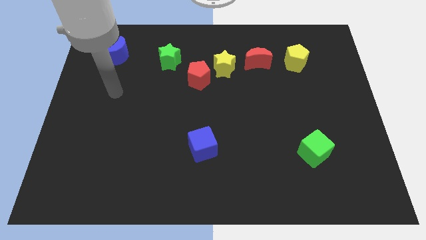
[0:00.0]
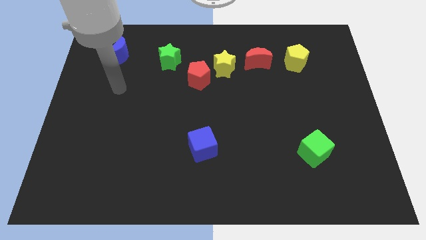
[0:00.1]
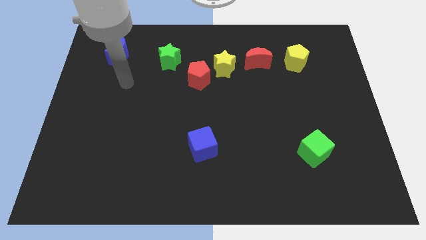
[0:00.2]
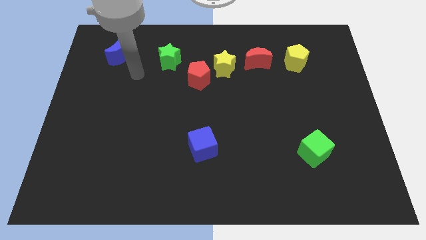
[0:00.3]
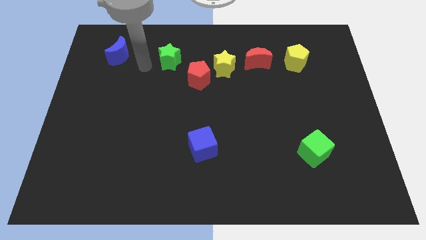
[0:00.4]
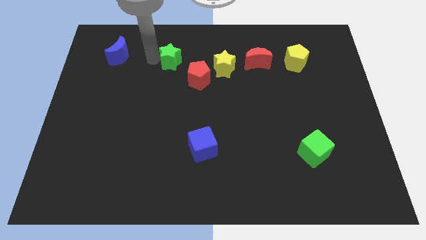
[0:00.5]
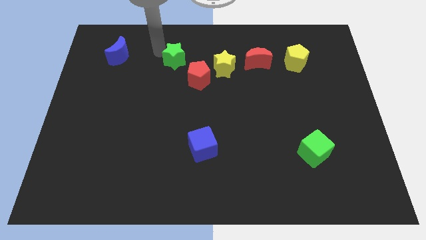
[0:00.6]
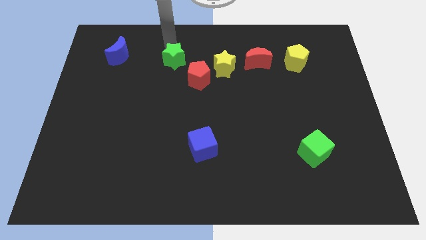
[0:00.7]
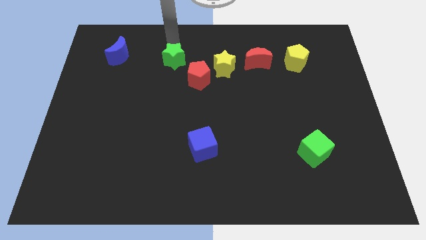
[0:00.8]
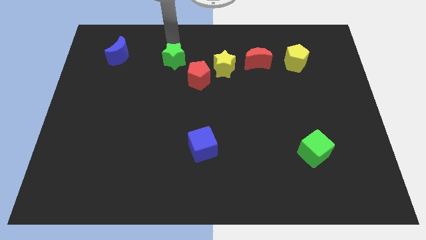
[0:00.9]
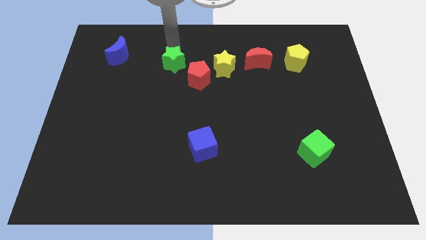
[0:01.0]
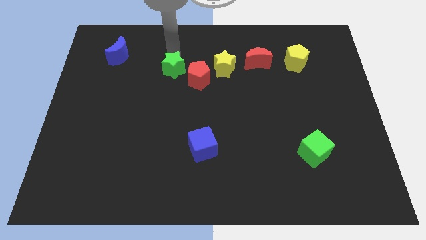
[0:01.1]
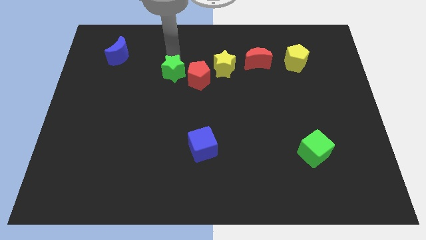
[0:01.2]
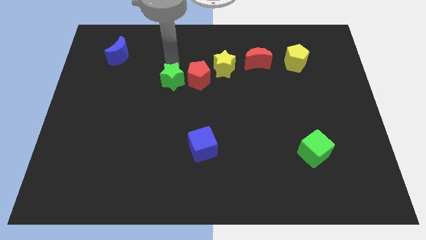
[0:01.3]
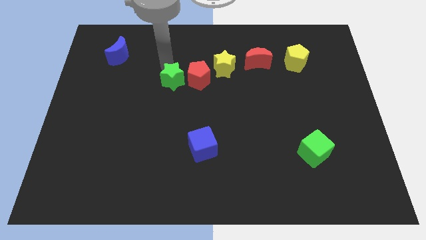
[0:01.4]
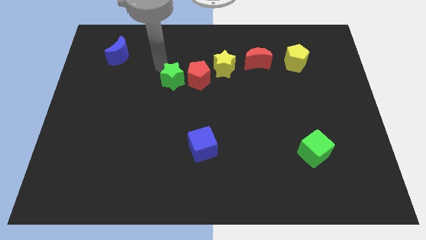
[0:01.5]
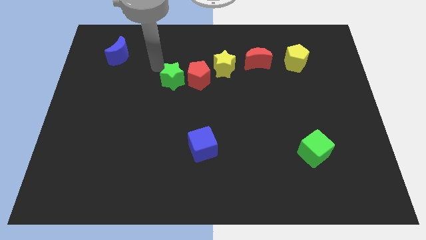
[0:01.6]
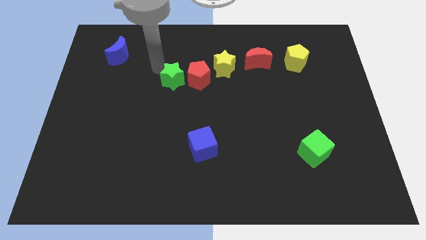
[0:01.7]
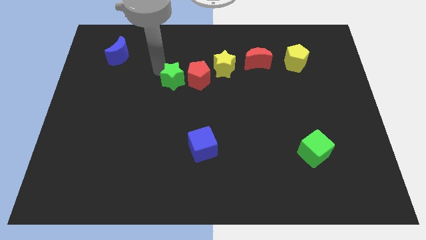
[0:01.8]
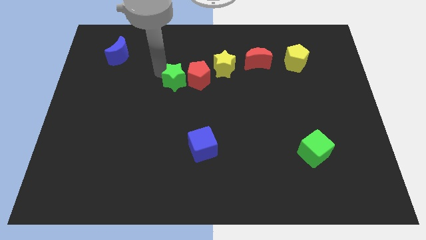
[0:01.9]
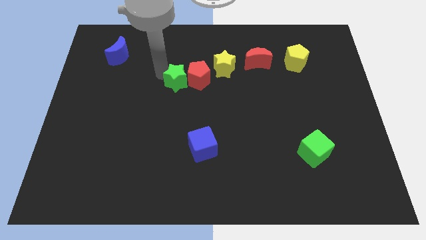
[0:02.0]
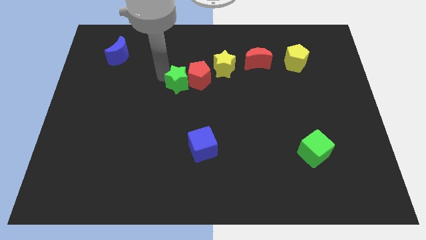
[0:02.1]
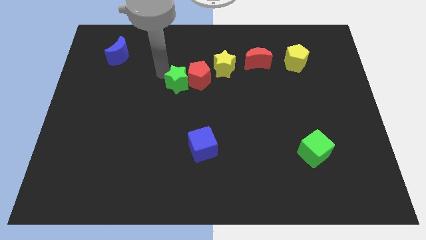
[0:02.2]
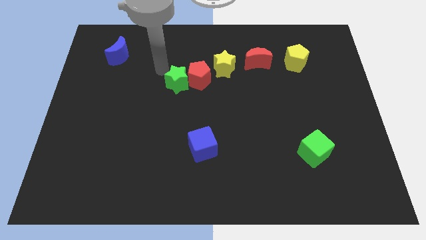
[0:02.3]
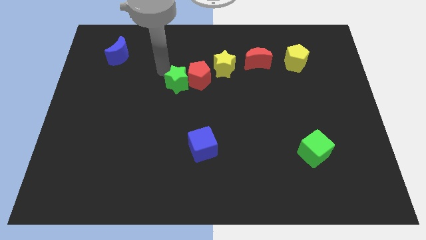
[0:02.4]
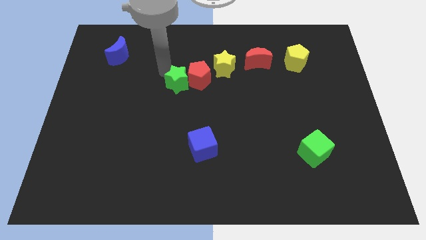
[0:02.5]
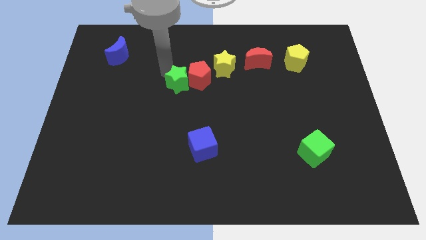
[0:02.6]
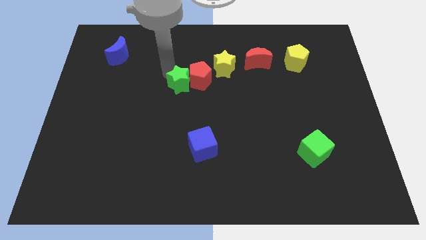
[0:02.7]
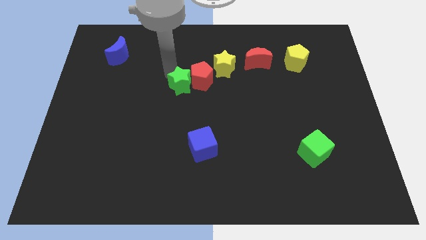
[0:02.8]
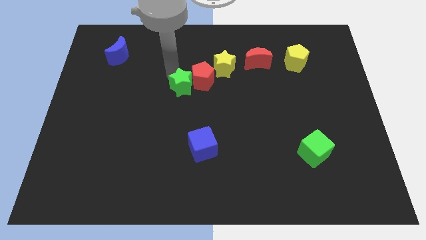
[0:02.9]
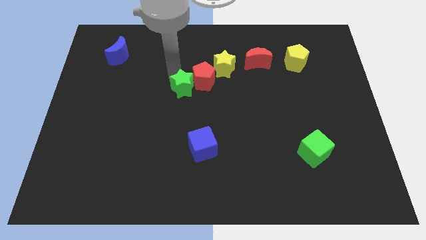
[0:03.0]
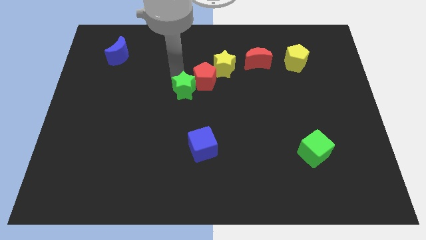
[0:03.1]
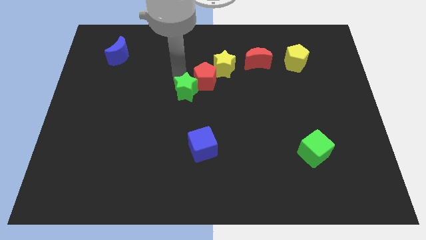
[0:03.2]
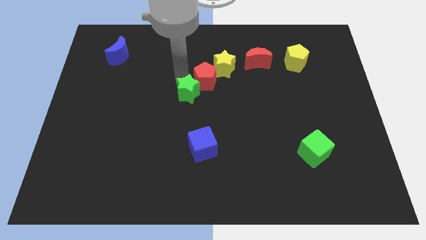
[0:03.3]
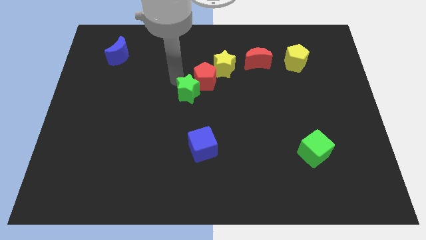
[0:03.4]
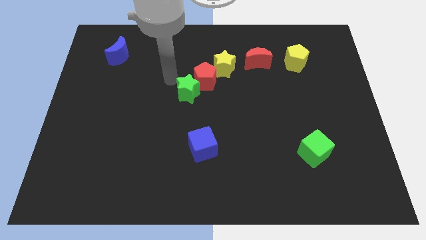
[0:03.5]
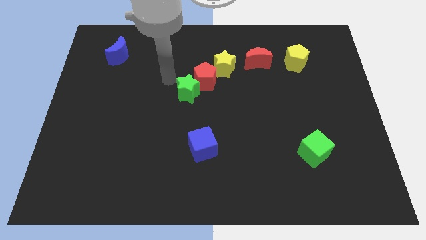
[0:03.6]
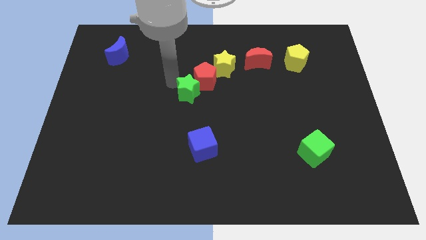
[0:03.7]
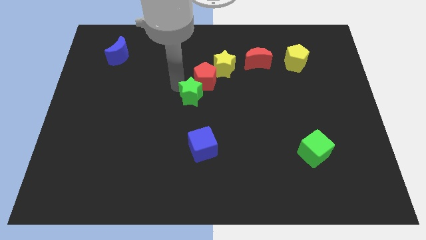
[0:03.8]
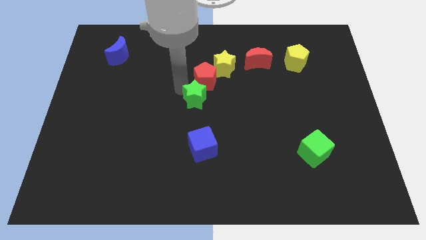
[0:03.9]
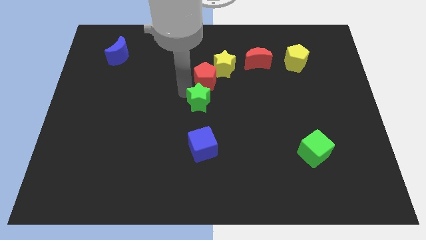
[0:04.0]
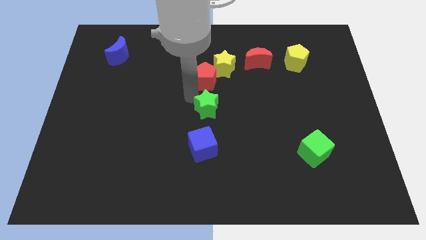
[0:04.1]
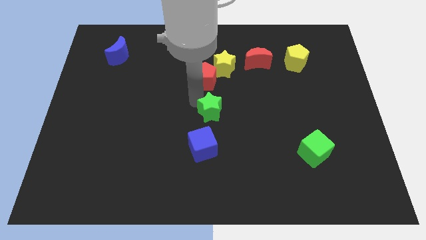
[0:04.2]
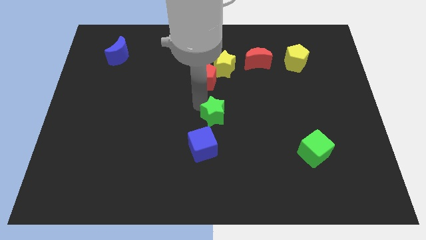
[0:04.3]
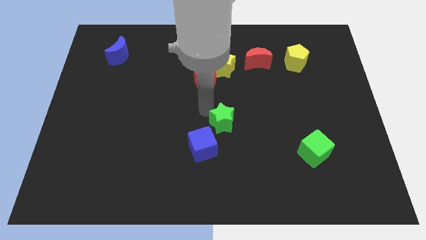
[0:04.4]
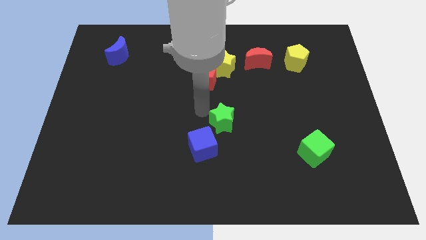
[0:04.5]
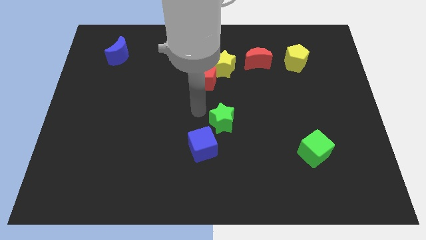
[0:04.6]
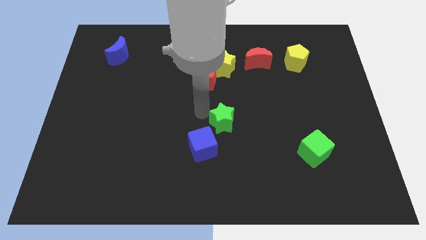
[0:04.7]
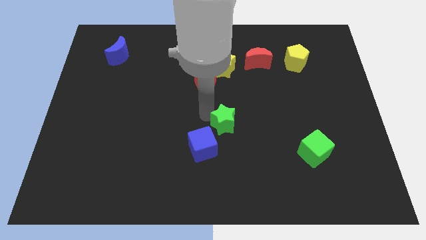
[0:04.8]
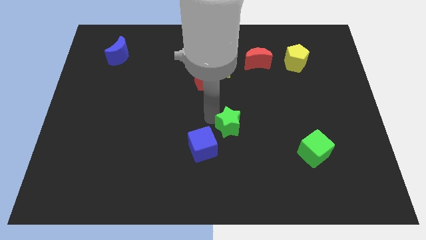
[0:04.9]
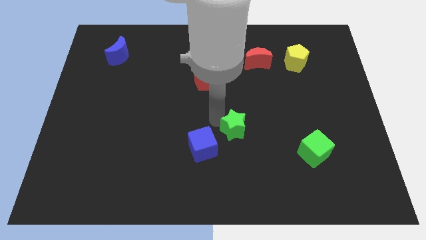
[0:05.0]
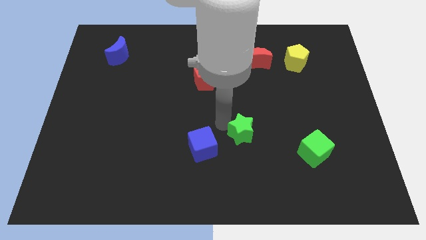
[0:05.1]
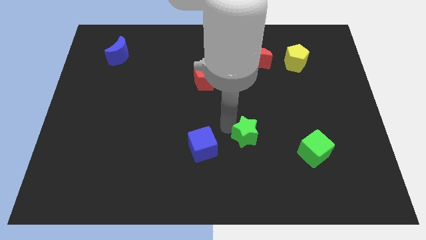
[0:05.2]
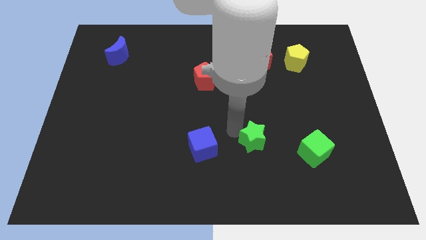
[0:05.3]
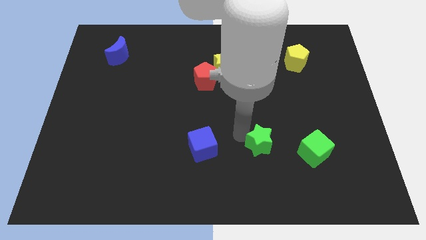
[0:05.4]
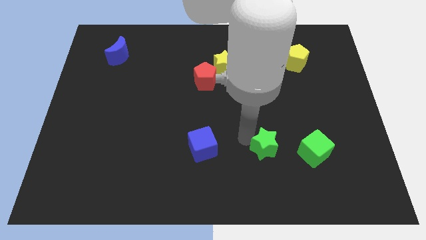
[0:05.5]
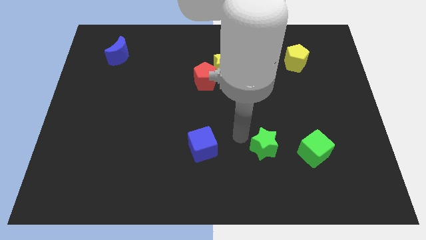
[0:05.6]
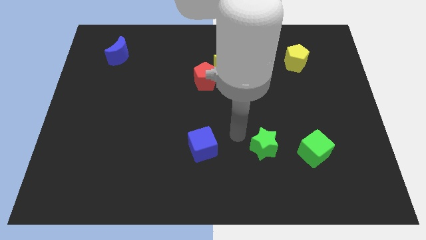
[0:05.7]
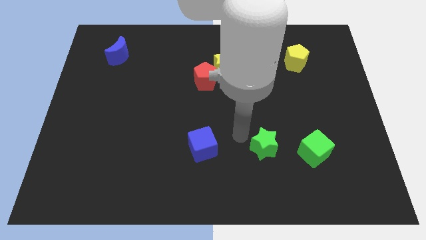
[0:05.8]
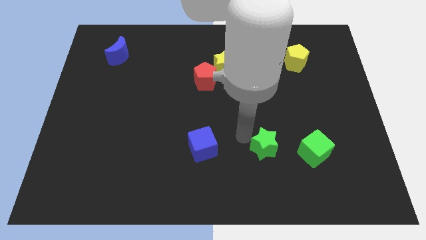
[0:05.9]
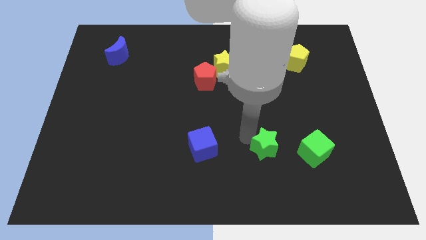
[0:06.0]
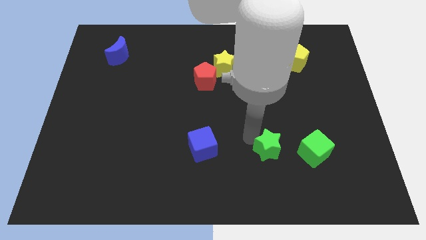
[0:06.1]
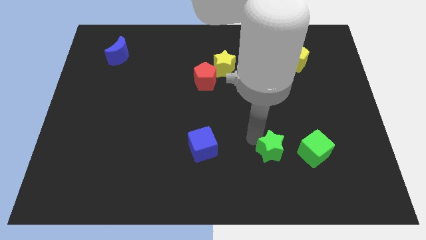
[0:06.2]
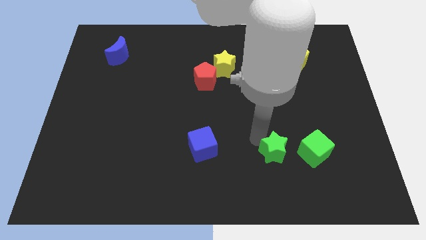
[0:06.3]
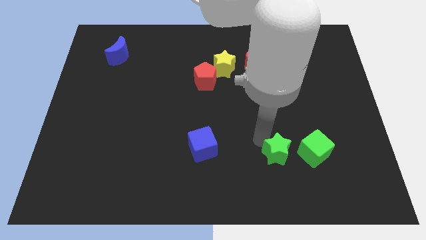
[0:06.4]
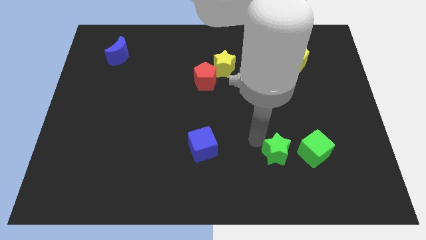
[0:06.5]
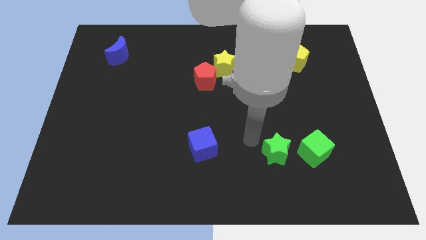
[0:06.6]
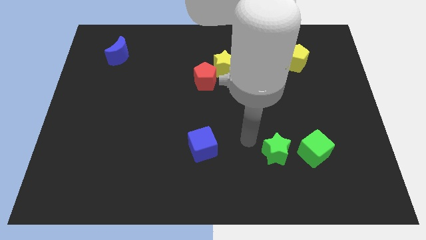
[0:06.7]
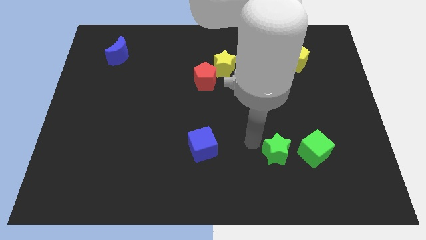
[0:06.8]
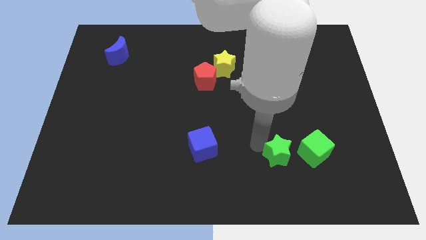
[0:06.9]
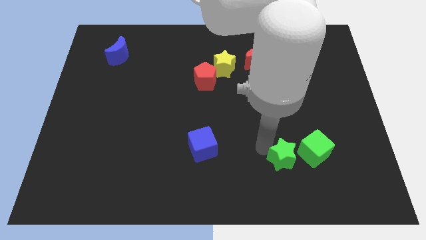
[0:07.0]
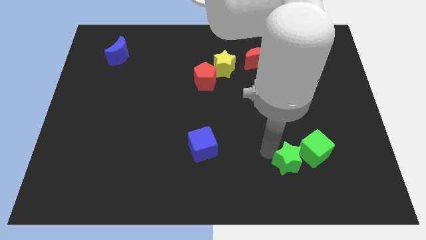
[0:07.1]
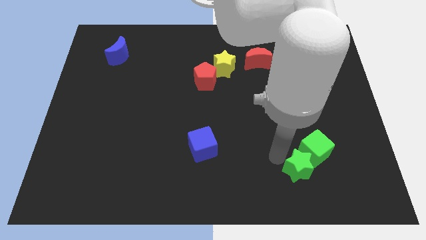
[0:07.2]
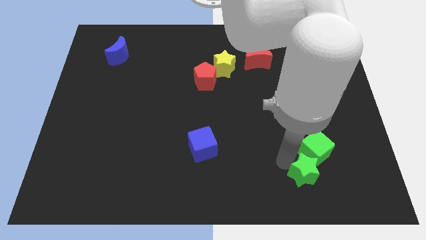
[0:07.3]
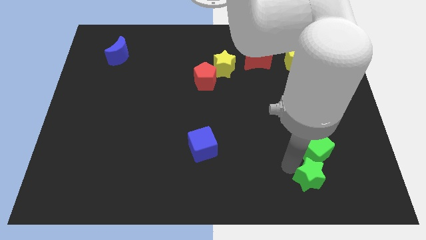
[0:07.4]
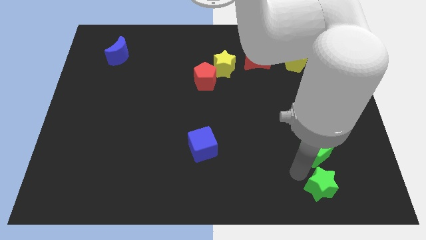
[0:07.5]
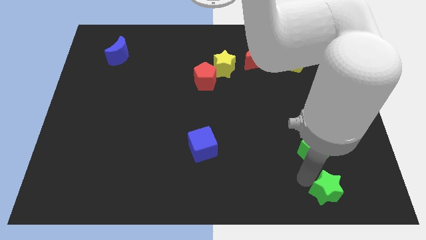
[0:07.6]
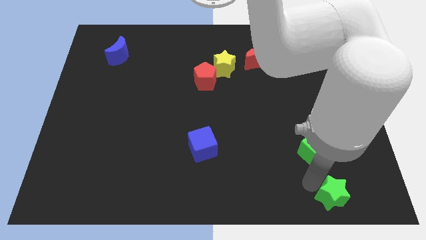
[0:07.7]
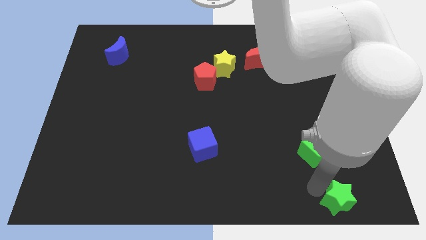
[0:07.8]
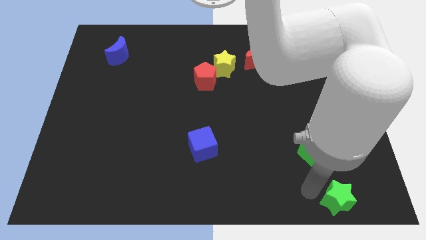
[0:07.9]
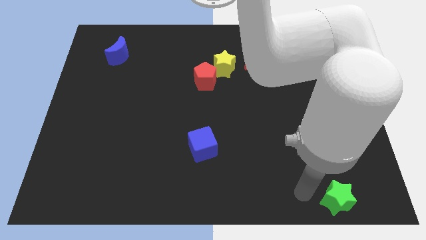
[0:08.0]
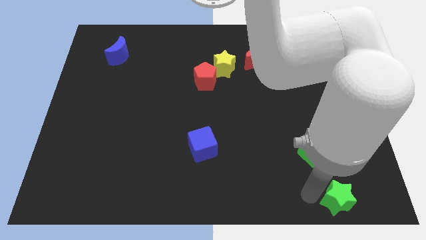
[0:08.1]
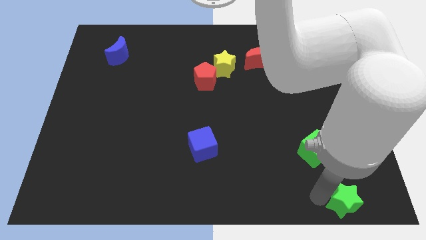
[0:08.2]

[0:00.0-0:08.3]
move the green star to the bottom right of the board
